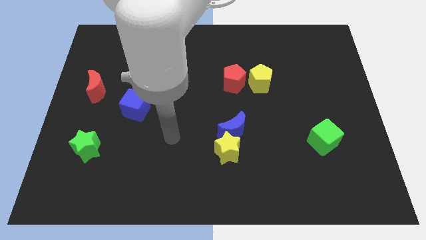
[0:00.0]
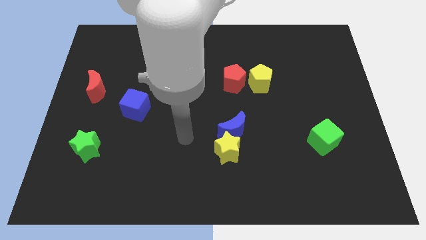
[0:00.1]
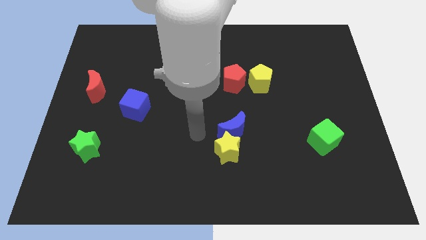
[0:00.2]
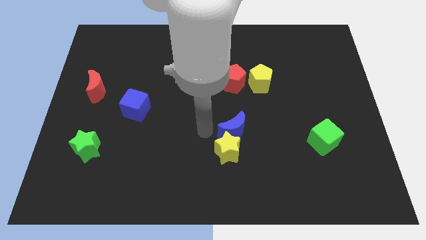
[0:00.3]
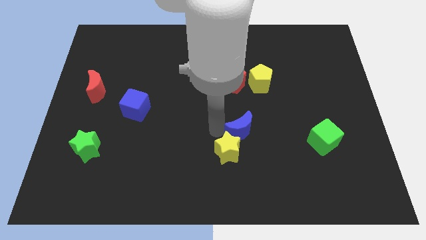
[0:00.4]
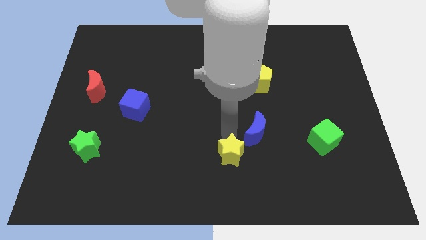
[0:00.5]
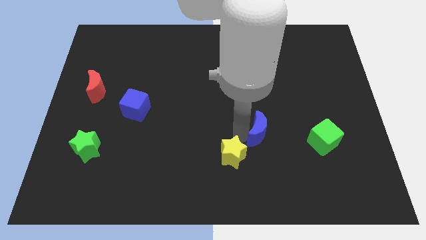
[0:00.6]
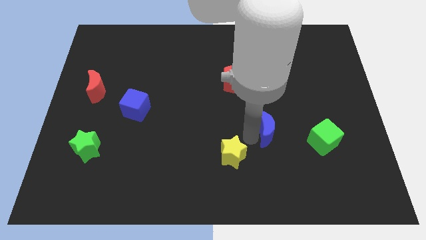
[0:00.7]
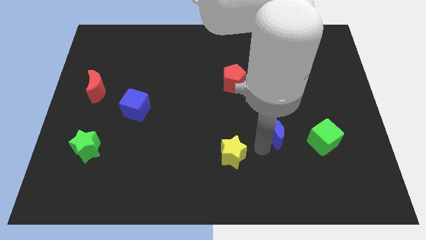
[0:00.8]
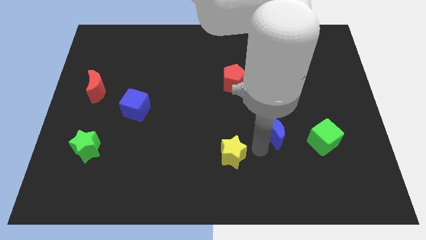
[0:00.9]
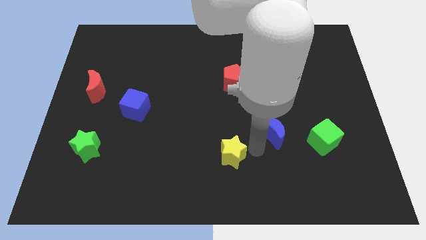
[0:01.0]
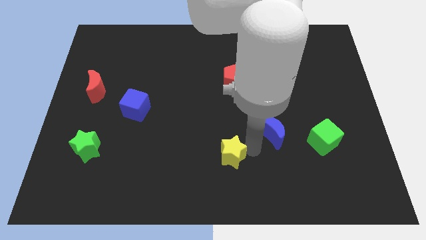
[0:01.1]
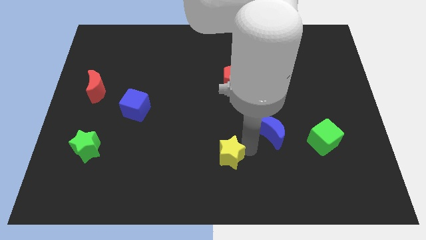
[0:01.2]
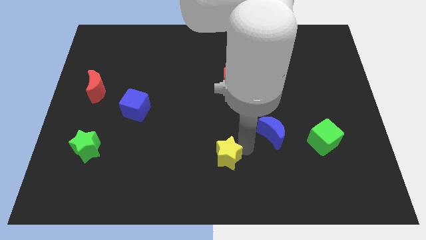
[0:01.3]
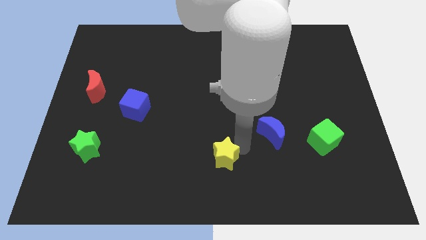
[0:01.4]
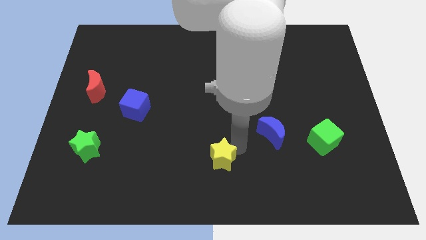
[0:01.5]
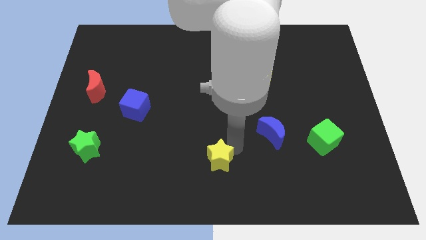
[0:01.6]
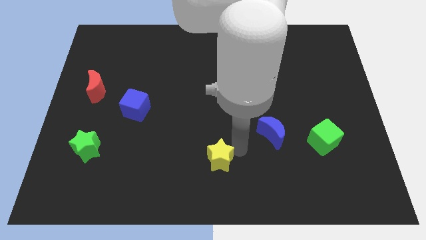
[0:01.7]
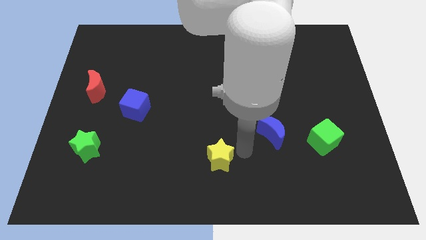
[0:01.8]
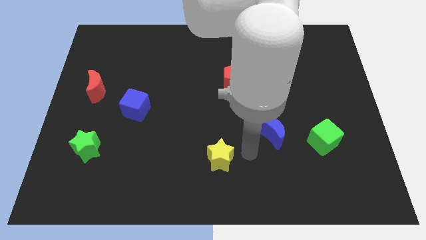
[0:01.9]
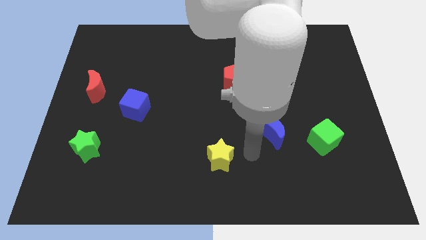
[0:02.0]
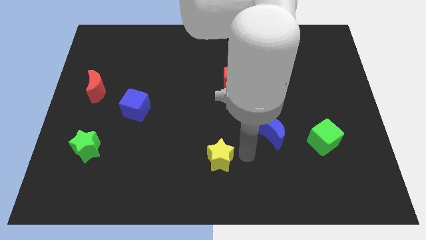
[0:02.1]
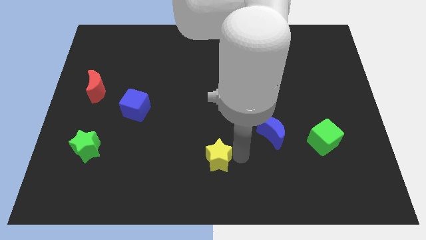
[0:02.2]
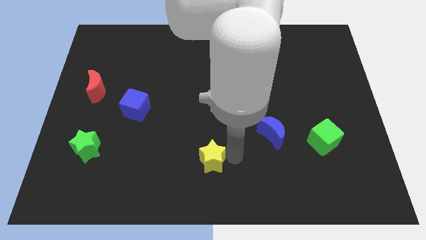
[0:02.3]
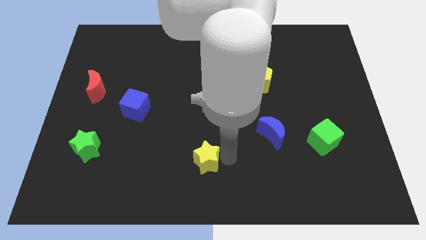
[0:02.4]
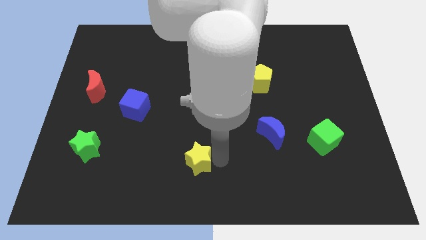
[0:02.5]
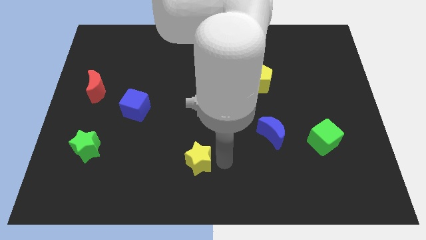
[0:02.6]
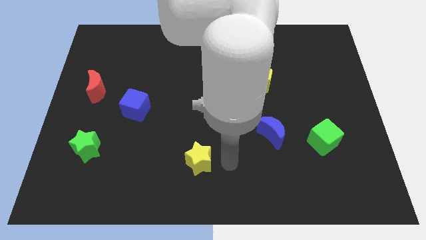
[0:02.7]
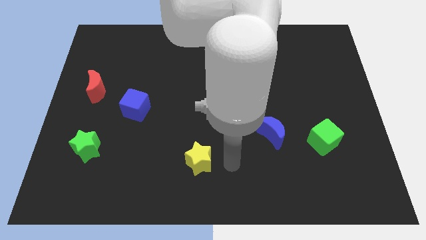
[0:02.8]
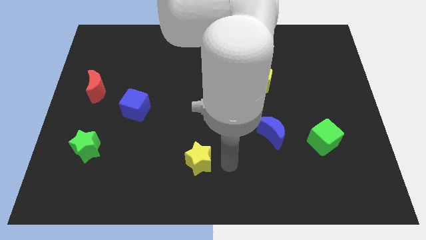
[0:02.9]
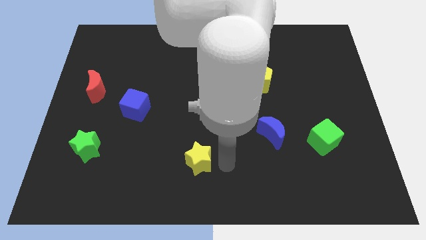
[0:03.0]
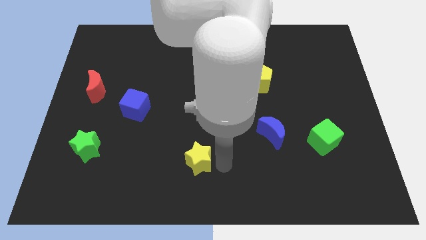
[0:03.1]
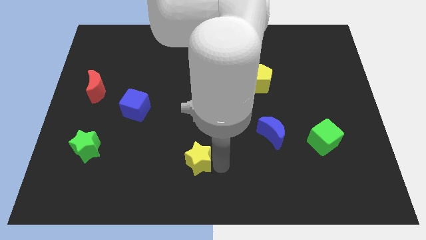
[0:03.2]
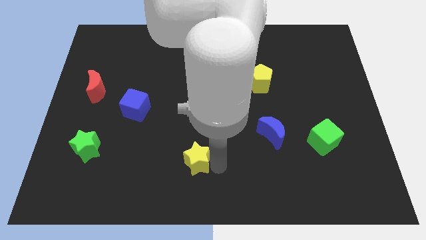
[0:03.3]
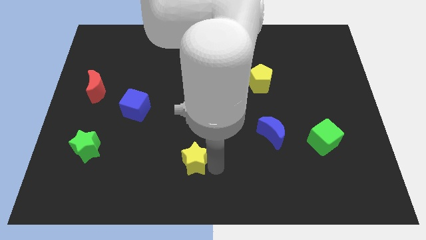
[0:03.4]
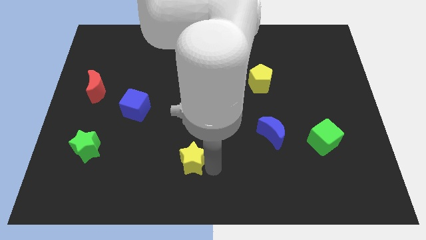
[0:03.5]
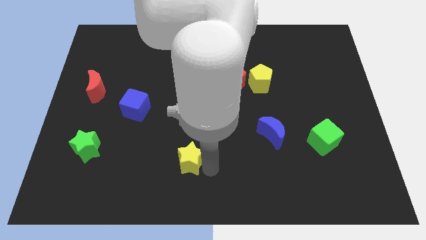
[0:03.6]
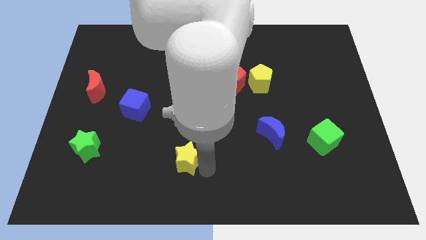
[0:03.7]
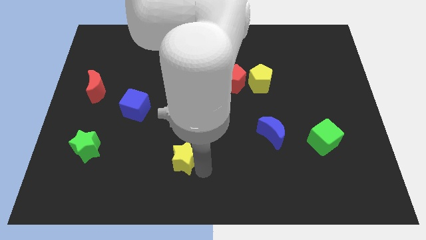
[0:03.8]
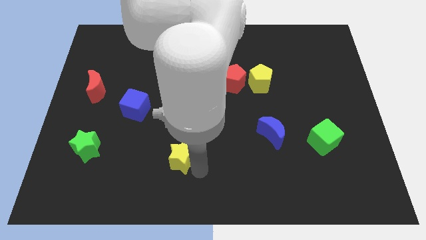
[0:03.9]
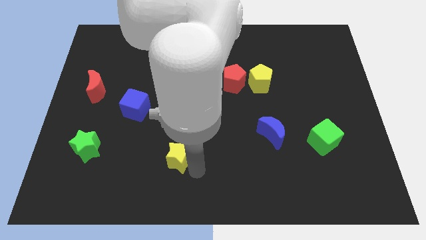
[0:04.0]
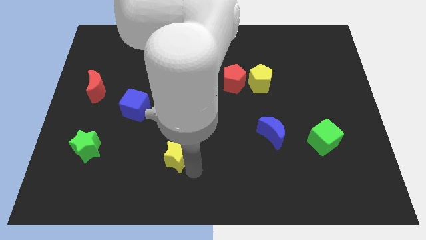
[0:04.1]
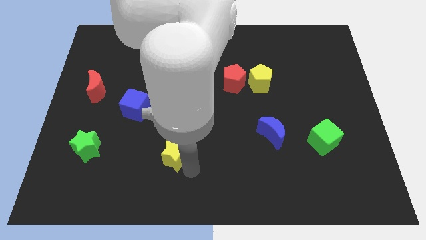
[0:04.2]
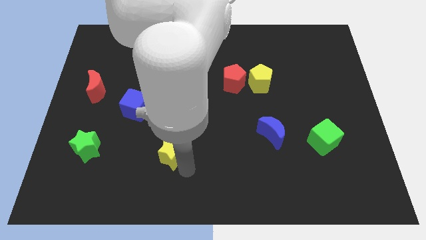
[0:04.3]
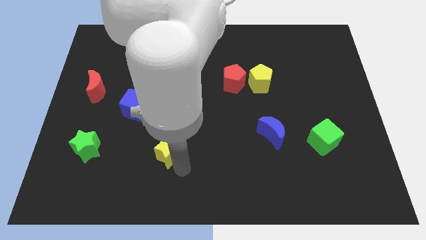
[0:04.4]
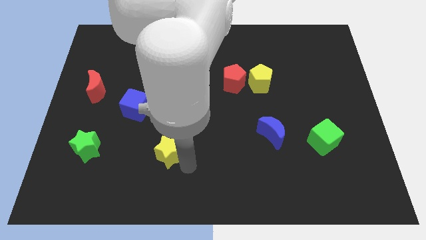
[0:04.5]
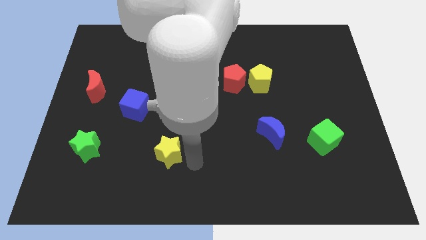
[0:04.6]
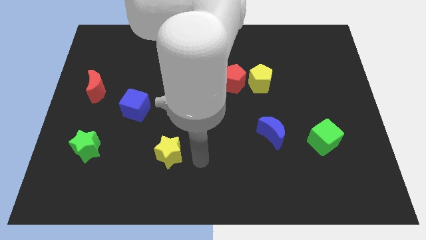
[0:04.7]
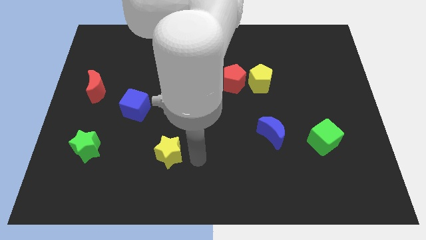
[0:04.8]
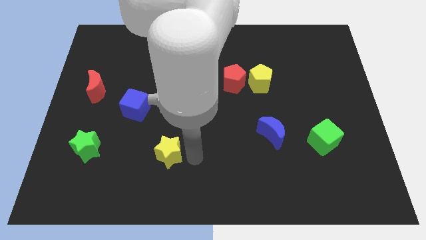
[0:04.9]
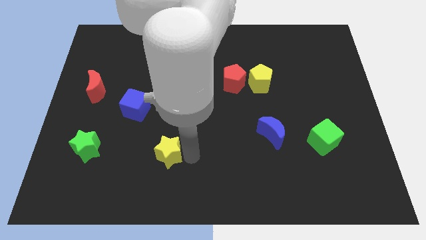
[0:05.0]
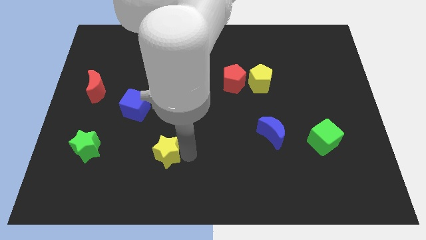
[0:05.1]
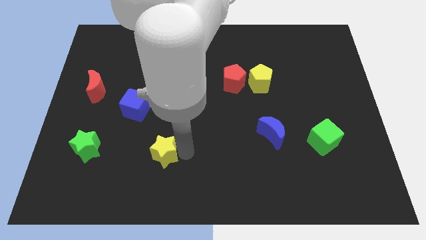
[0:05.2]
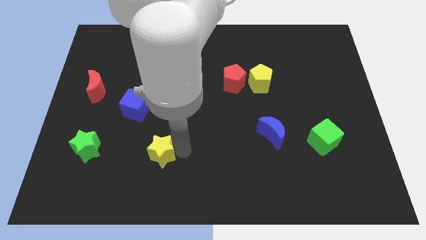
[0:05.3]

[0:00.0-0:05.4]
put the yellow star right of the green star

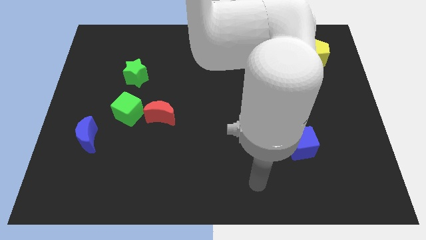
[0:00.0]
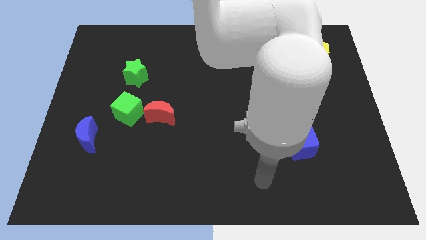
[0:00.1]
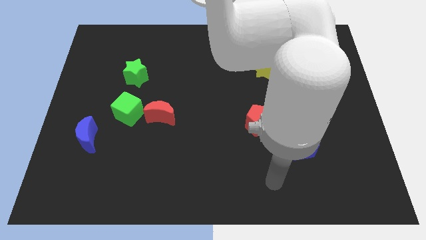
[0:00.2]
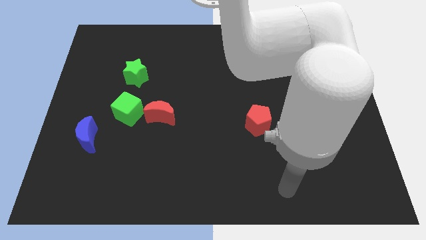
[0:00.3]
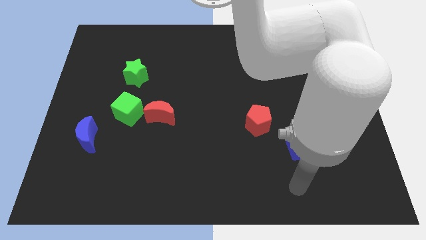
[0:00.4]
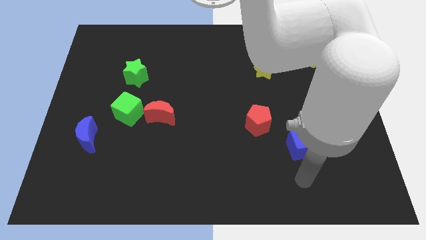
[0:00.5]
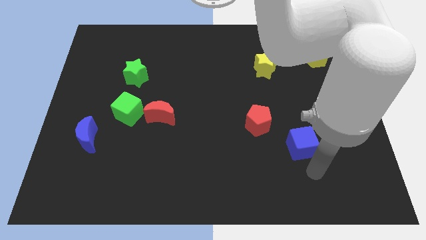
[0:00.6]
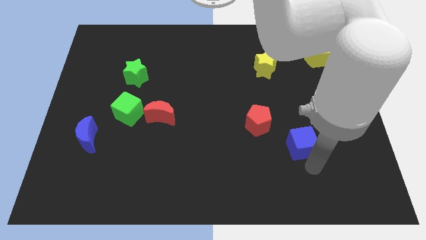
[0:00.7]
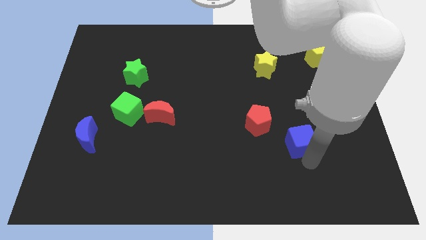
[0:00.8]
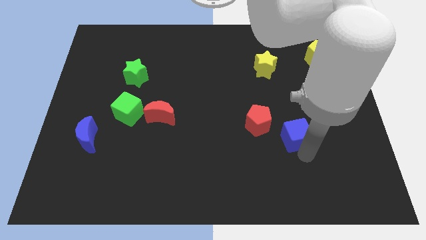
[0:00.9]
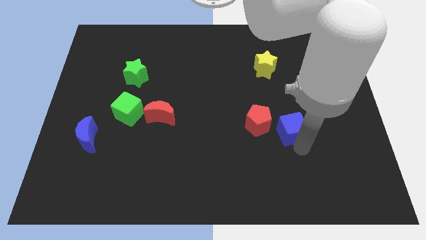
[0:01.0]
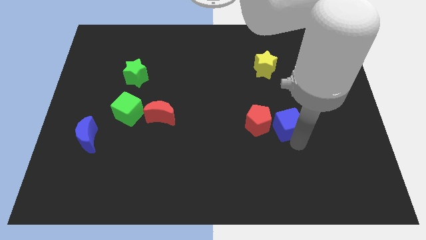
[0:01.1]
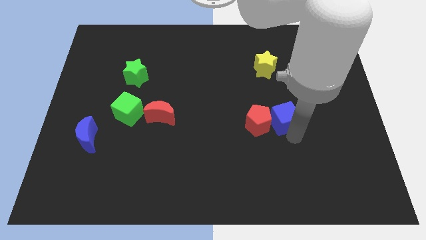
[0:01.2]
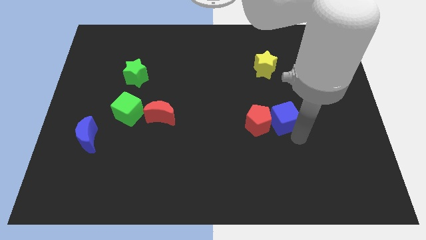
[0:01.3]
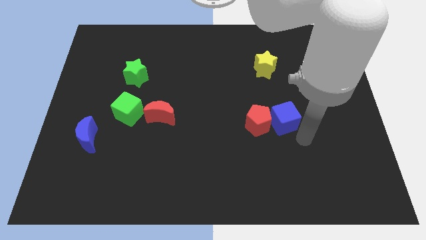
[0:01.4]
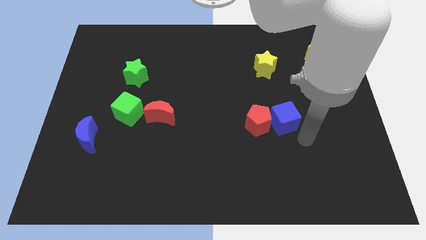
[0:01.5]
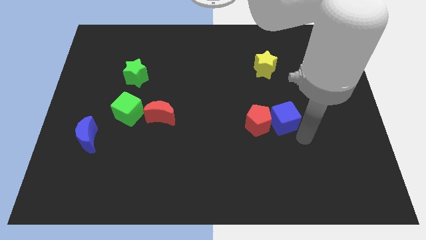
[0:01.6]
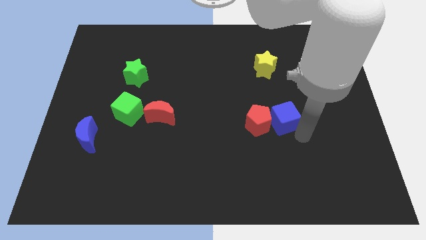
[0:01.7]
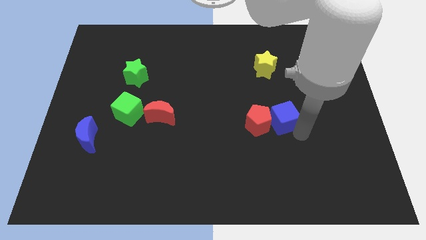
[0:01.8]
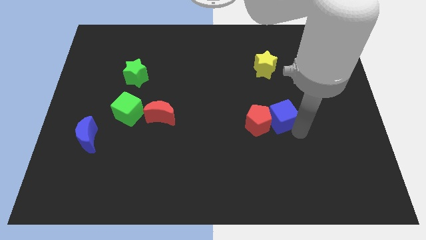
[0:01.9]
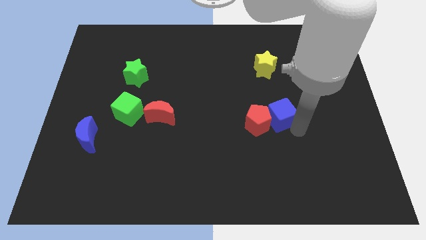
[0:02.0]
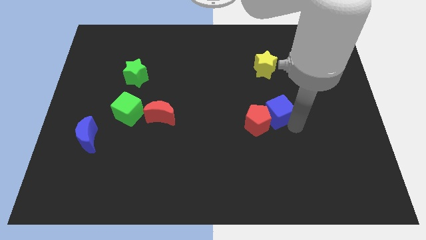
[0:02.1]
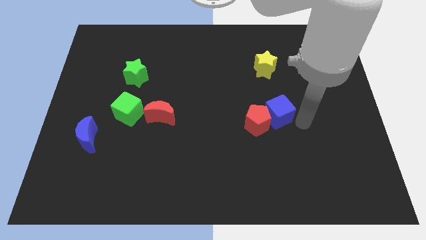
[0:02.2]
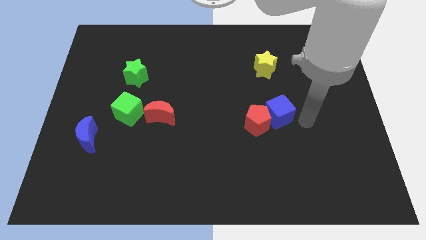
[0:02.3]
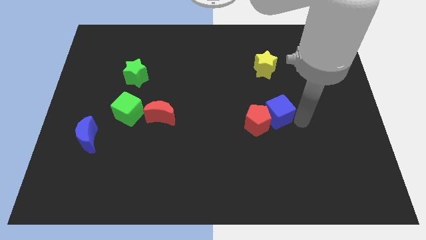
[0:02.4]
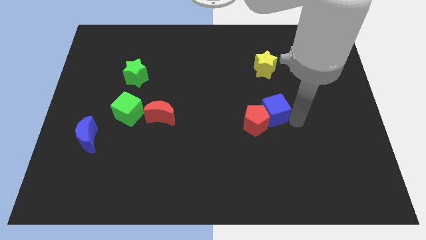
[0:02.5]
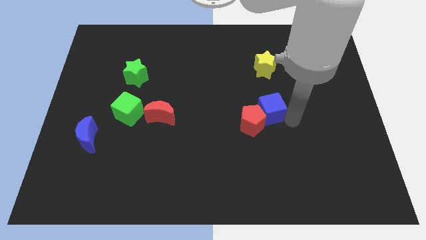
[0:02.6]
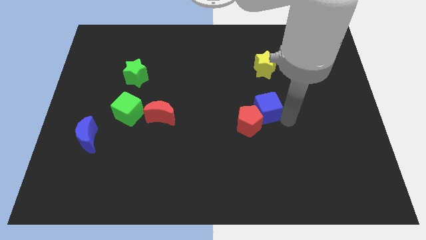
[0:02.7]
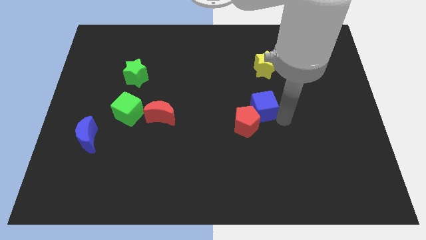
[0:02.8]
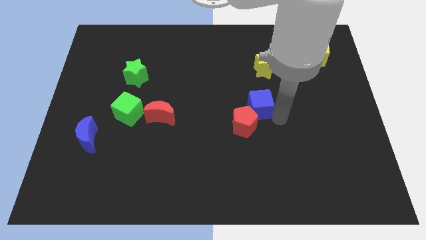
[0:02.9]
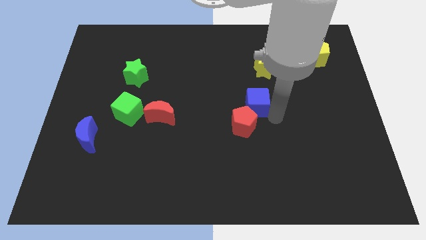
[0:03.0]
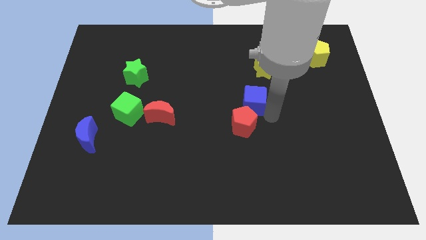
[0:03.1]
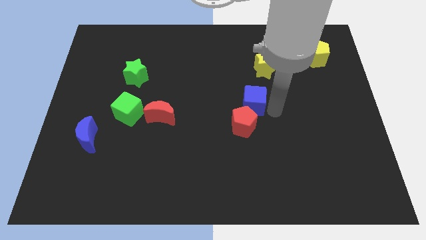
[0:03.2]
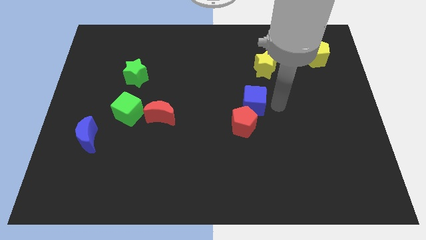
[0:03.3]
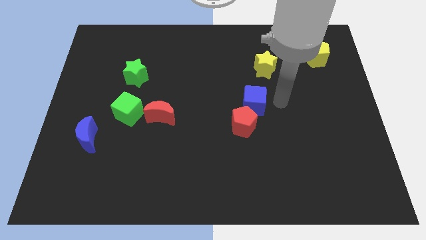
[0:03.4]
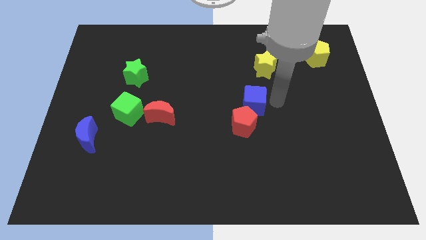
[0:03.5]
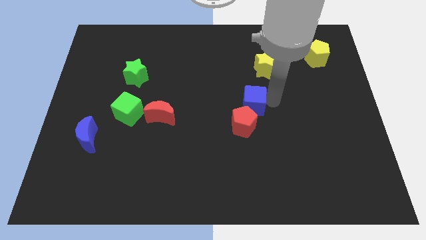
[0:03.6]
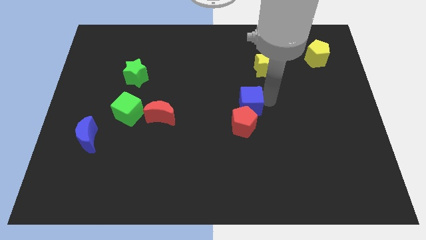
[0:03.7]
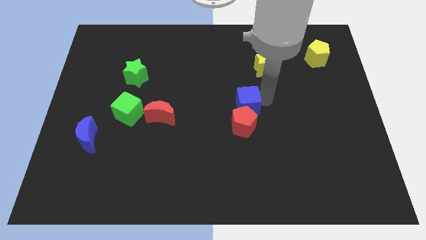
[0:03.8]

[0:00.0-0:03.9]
push the blue cube to the top left side of the red pentagon
